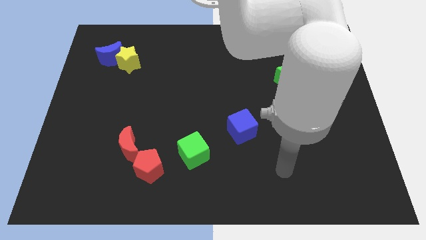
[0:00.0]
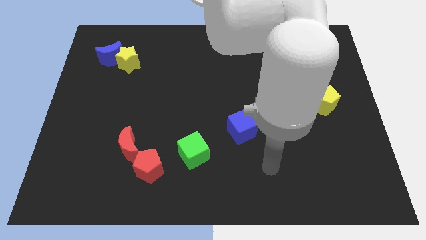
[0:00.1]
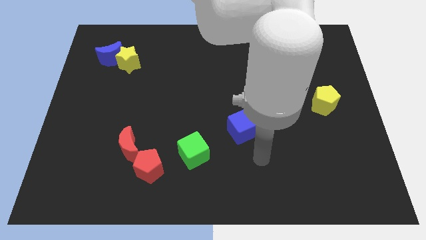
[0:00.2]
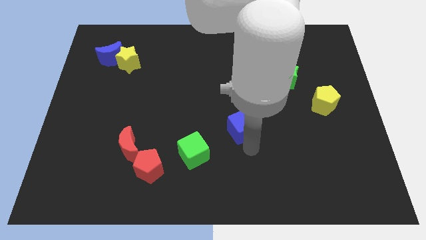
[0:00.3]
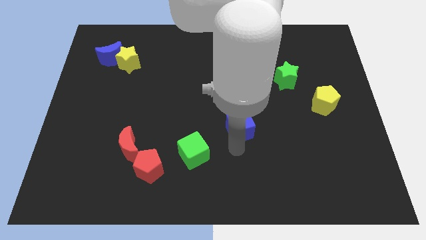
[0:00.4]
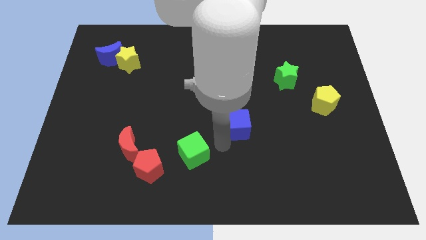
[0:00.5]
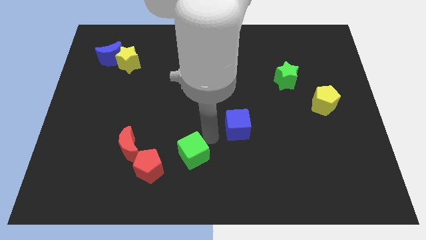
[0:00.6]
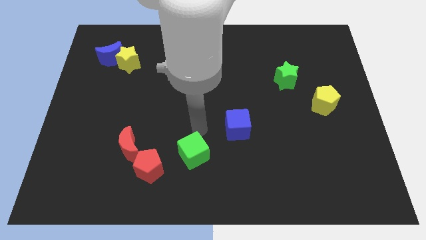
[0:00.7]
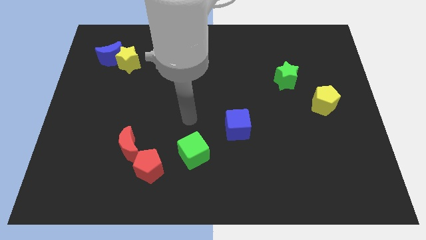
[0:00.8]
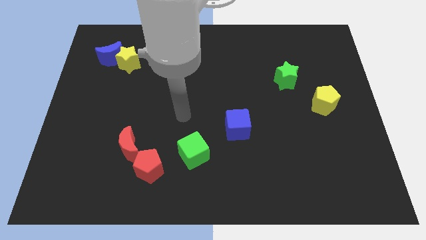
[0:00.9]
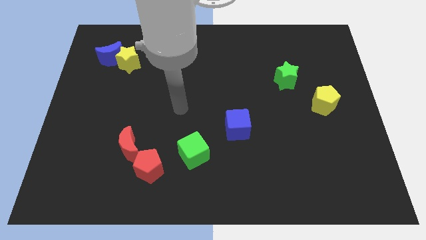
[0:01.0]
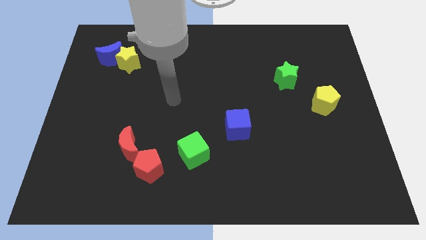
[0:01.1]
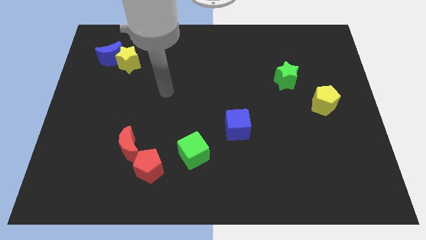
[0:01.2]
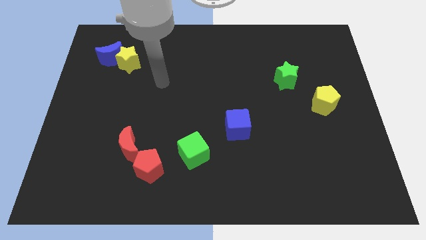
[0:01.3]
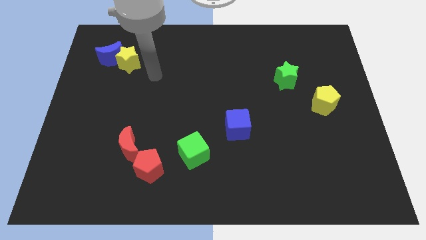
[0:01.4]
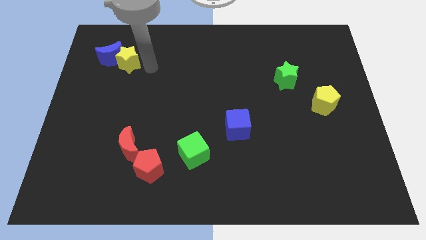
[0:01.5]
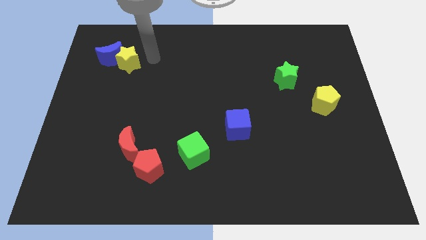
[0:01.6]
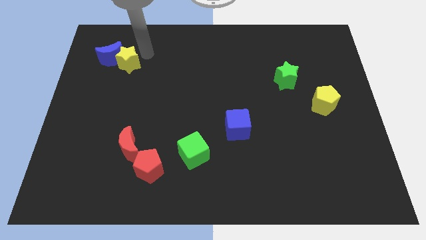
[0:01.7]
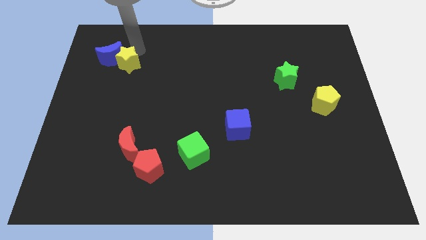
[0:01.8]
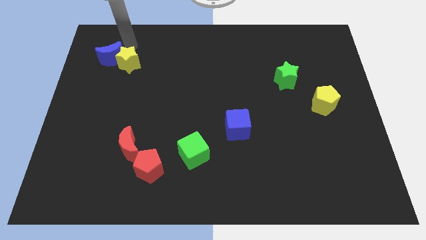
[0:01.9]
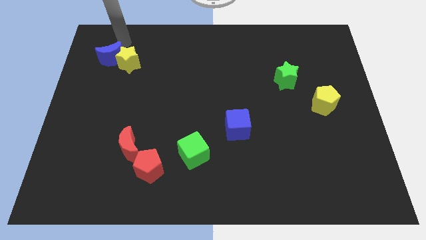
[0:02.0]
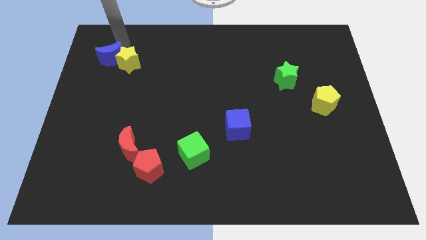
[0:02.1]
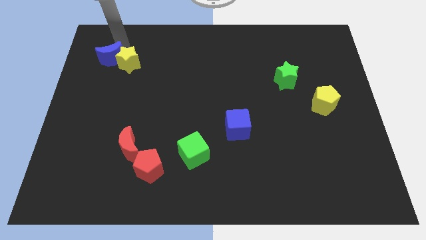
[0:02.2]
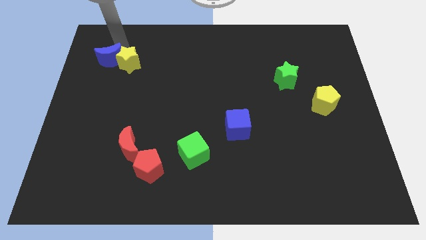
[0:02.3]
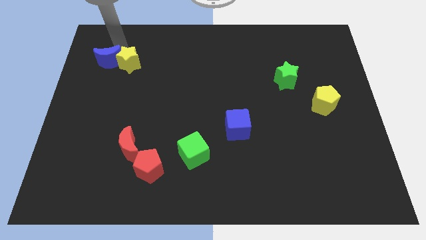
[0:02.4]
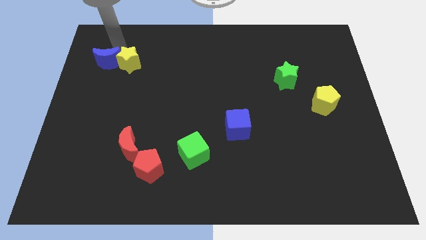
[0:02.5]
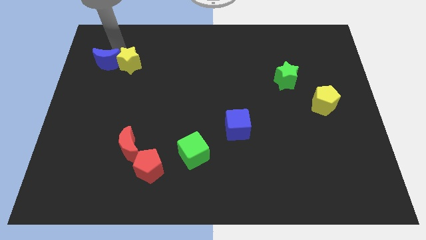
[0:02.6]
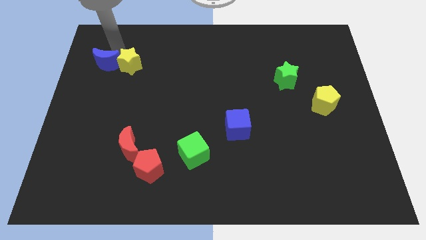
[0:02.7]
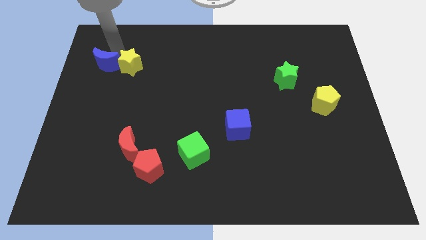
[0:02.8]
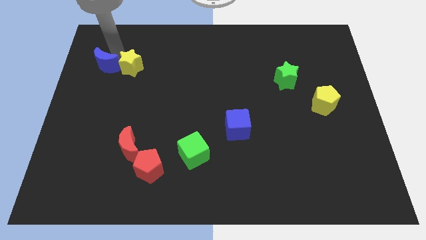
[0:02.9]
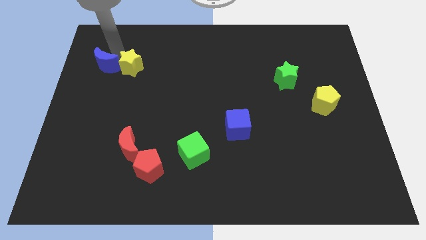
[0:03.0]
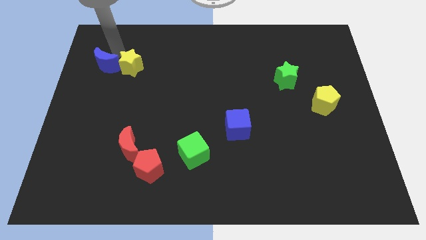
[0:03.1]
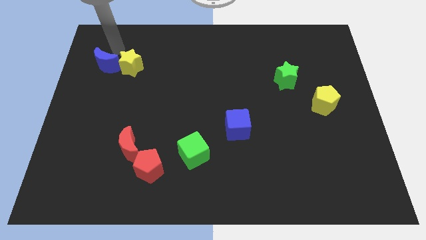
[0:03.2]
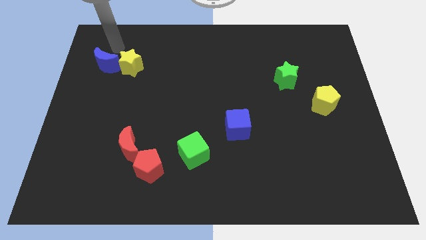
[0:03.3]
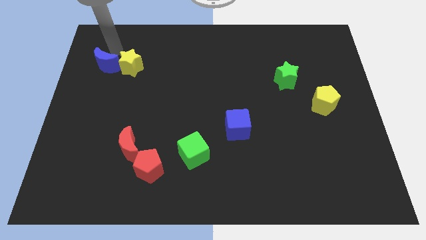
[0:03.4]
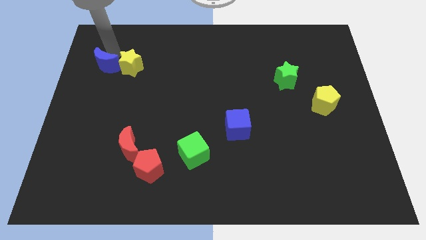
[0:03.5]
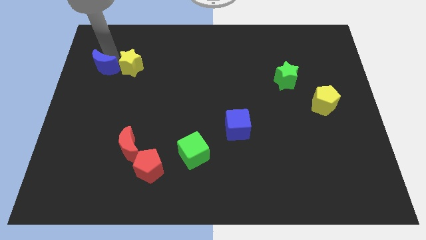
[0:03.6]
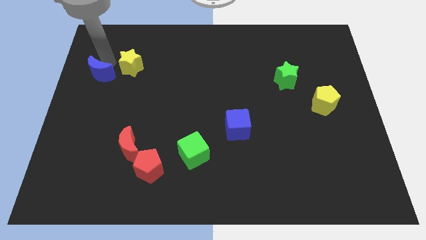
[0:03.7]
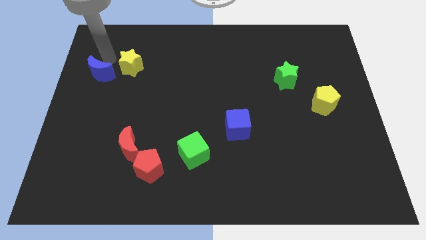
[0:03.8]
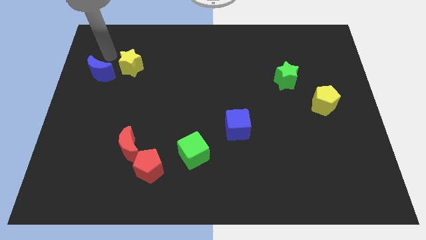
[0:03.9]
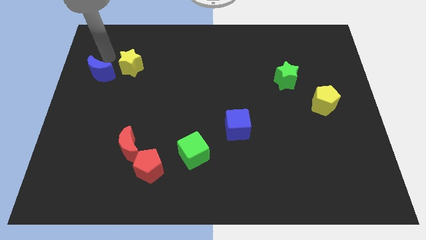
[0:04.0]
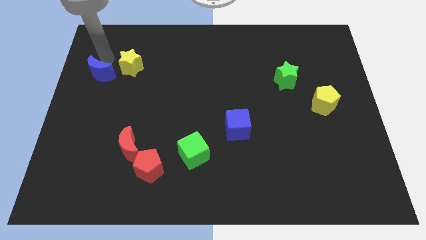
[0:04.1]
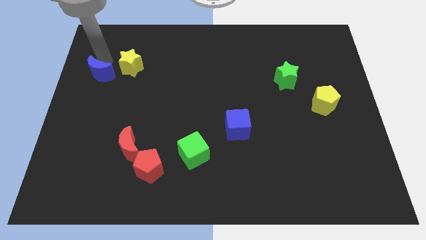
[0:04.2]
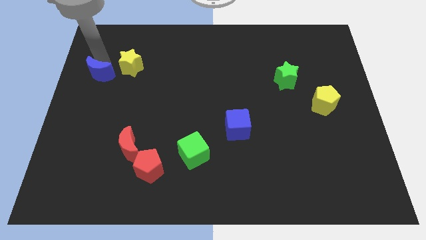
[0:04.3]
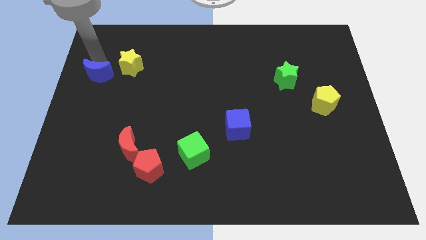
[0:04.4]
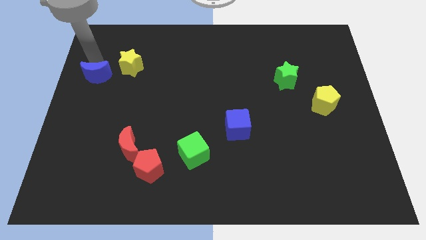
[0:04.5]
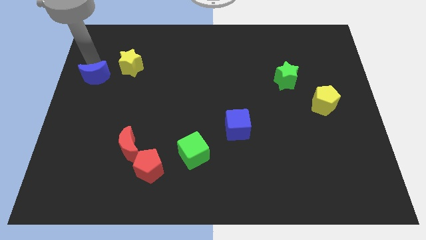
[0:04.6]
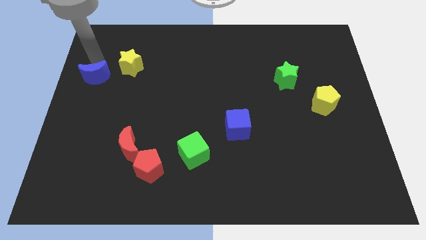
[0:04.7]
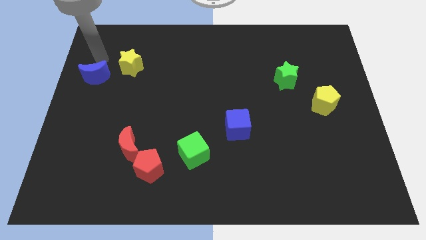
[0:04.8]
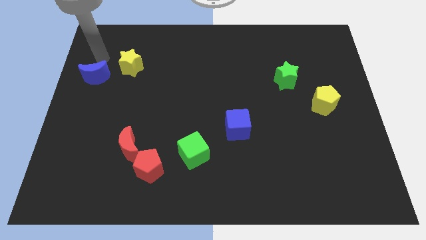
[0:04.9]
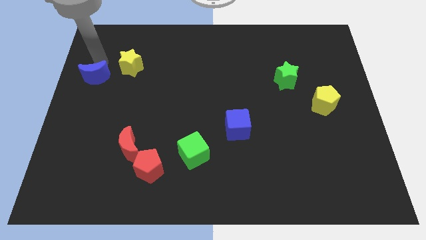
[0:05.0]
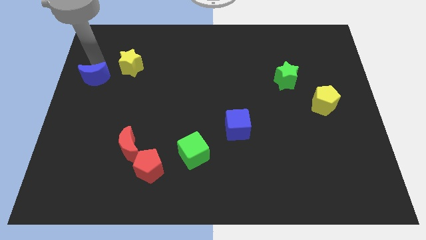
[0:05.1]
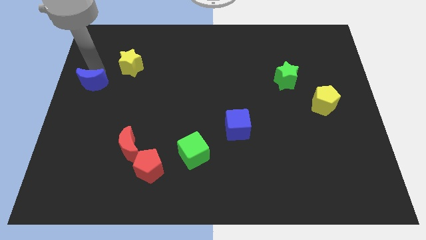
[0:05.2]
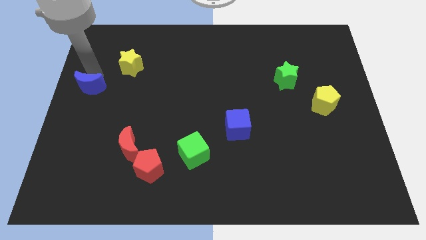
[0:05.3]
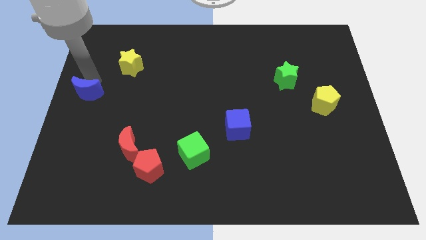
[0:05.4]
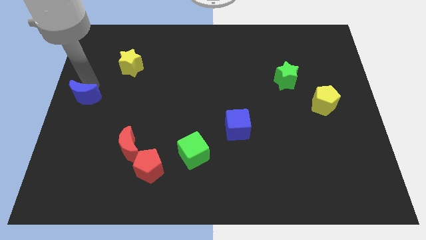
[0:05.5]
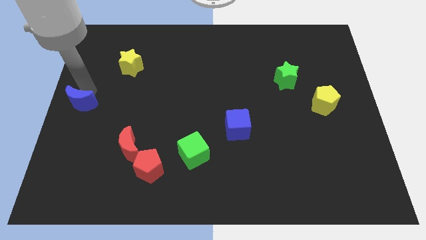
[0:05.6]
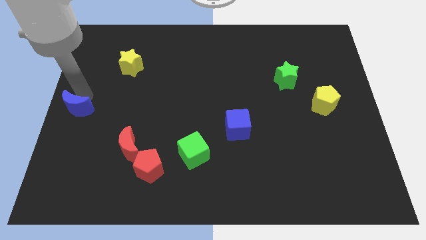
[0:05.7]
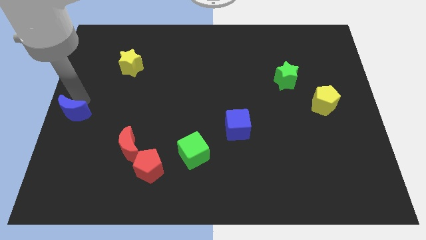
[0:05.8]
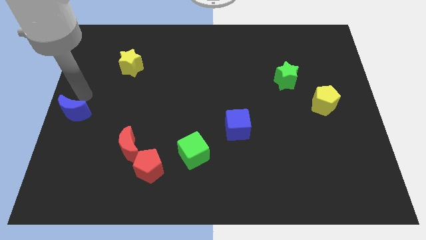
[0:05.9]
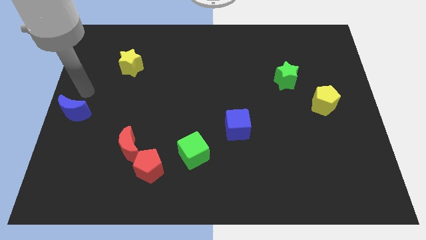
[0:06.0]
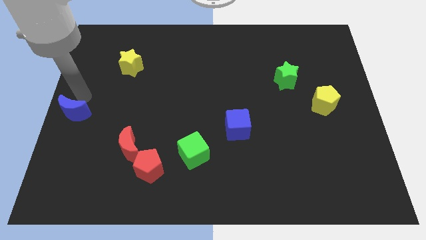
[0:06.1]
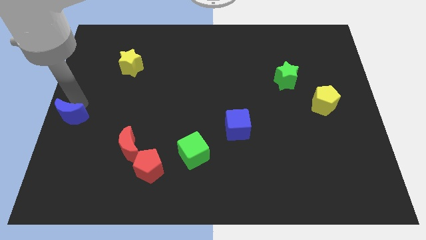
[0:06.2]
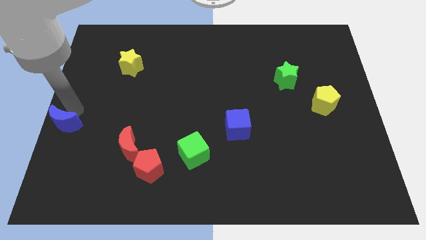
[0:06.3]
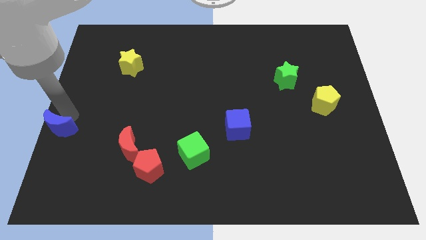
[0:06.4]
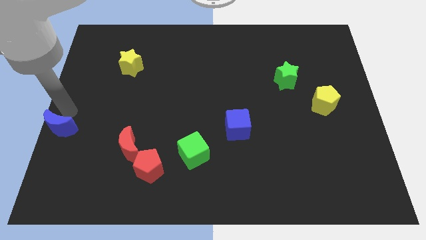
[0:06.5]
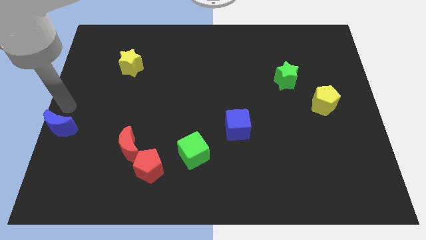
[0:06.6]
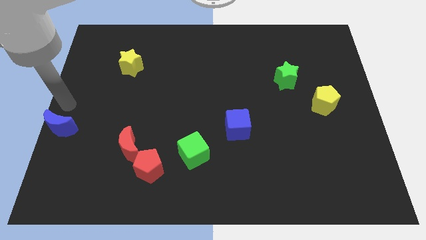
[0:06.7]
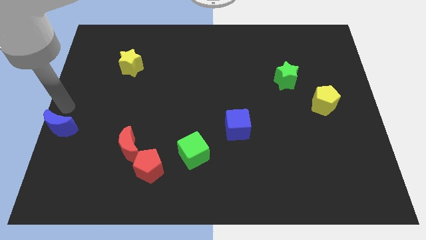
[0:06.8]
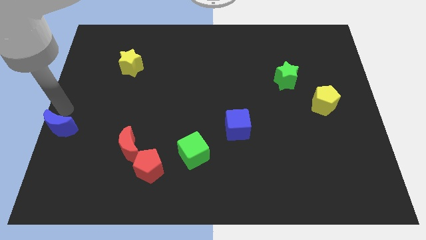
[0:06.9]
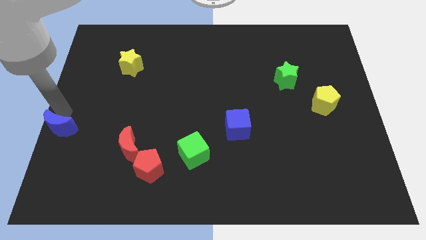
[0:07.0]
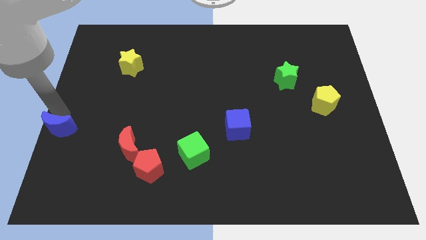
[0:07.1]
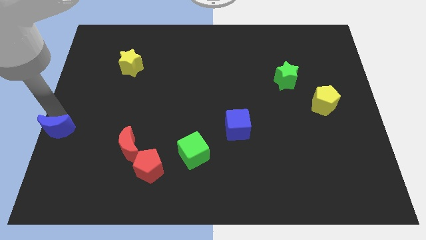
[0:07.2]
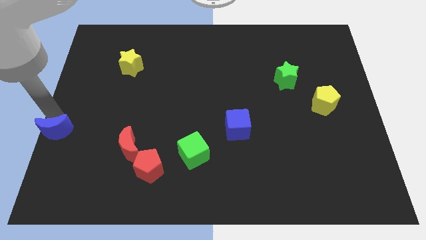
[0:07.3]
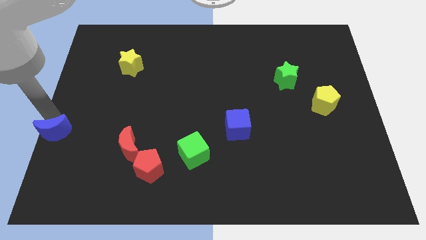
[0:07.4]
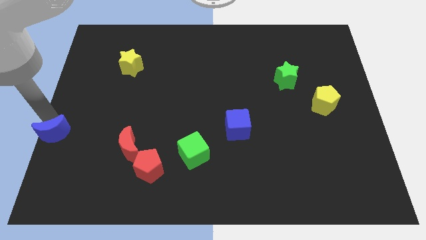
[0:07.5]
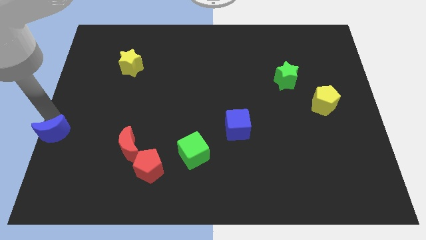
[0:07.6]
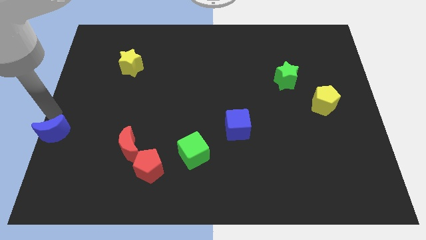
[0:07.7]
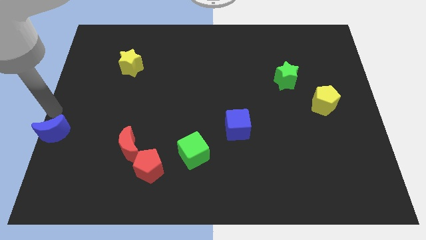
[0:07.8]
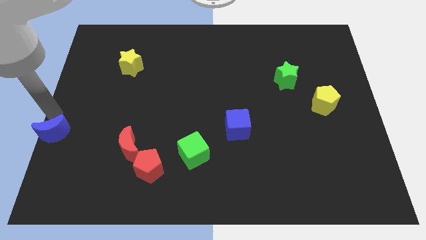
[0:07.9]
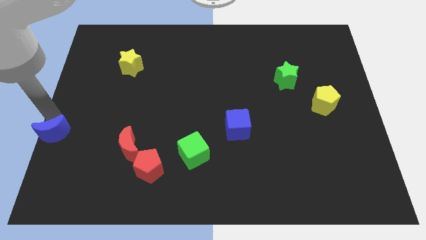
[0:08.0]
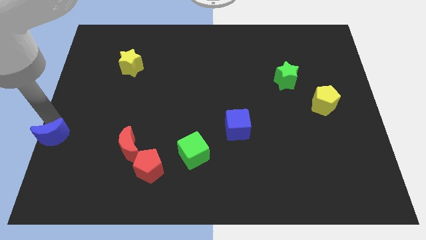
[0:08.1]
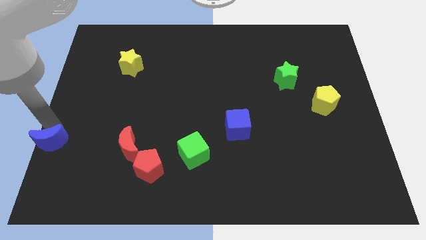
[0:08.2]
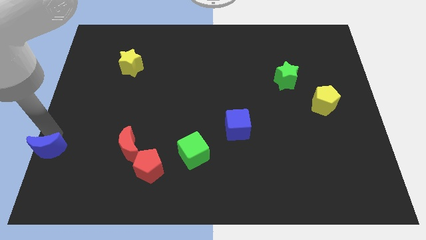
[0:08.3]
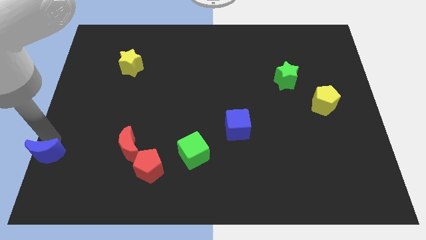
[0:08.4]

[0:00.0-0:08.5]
push the blue moon to the bottom left of the board
